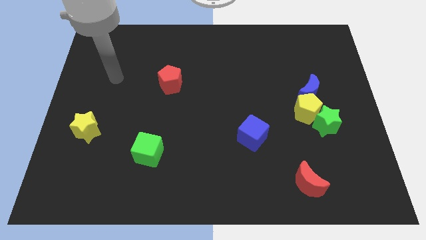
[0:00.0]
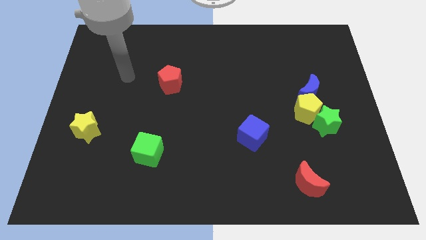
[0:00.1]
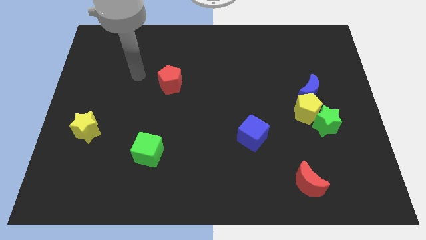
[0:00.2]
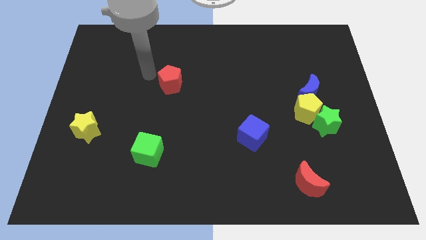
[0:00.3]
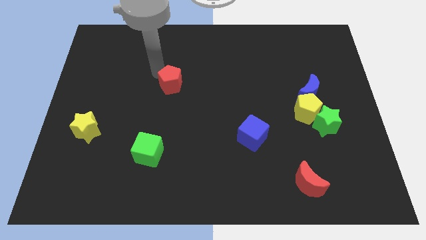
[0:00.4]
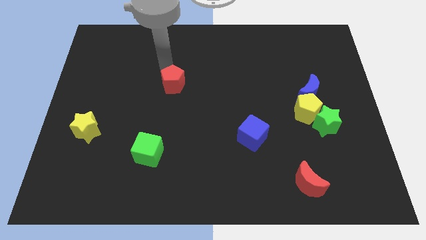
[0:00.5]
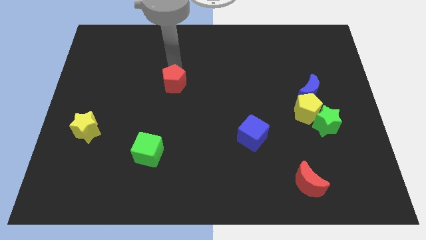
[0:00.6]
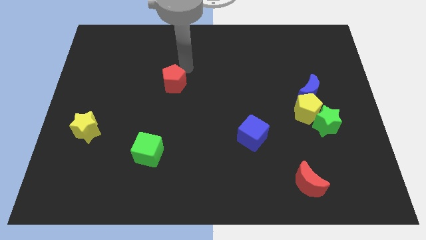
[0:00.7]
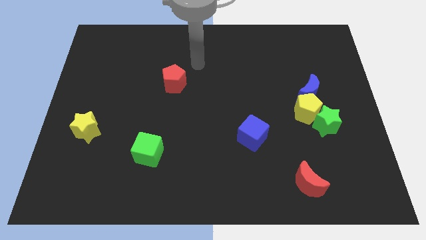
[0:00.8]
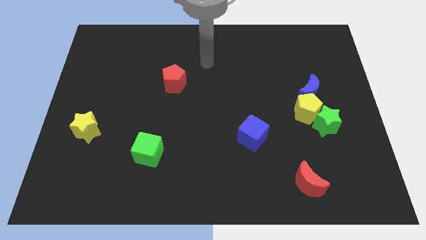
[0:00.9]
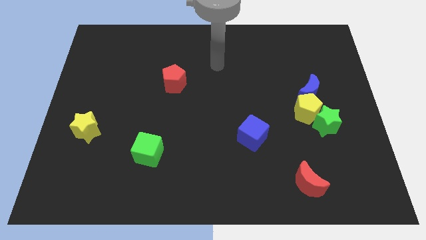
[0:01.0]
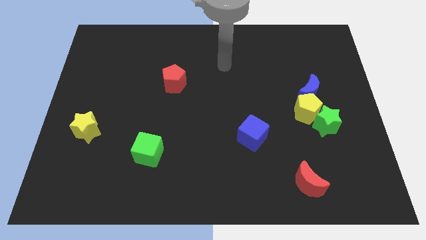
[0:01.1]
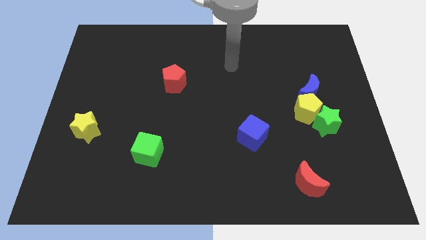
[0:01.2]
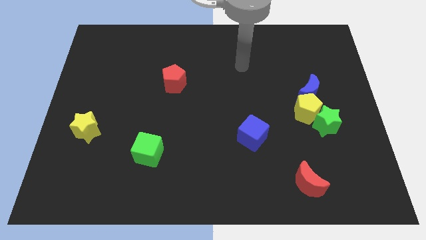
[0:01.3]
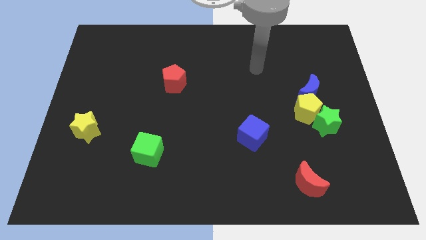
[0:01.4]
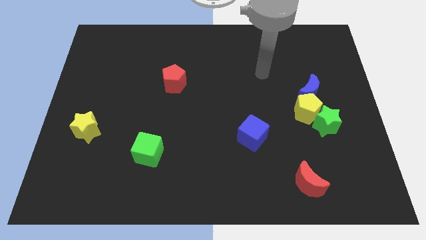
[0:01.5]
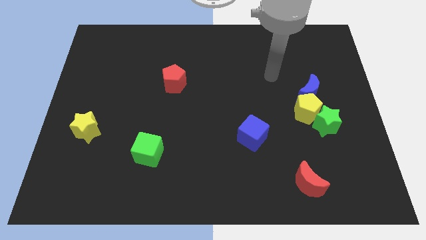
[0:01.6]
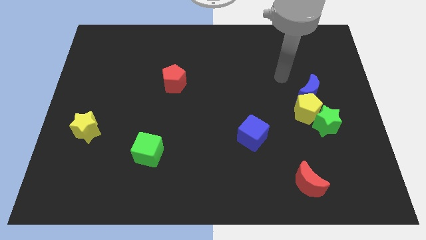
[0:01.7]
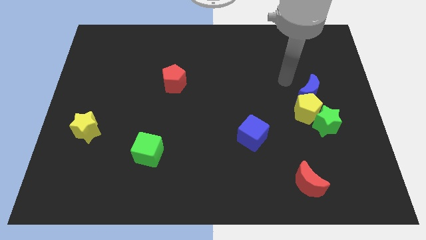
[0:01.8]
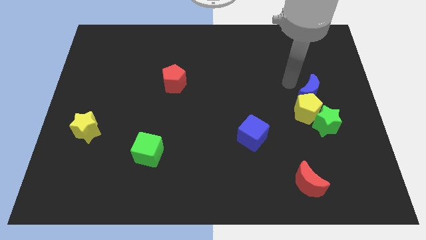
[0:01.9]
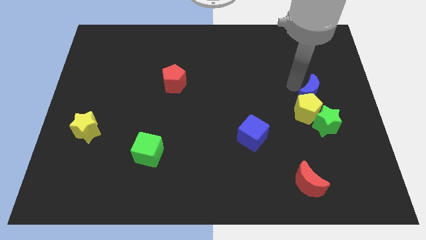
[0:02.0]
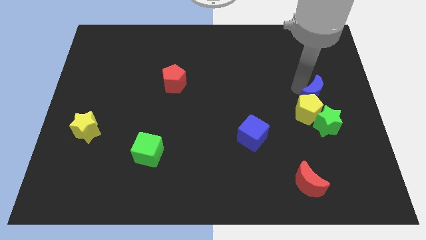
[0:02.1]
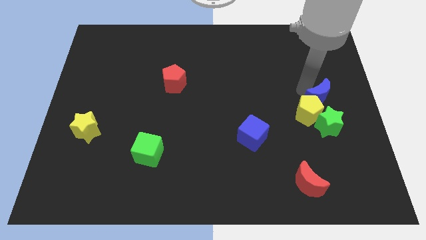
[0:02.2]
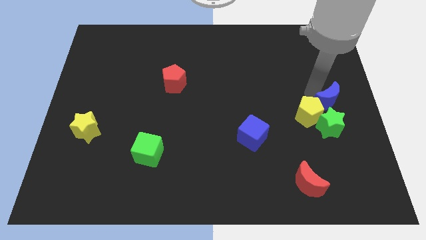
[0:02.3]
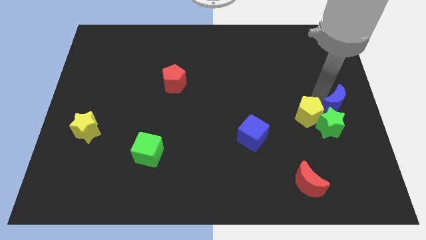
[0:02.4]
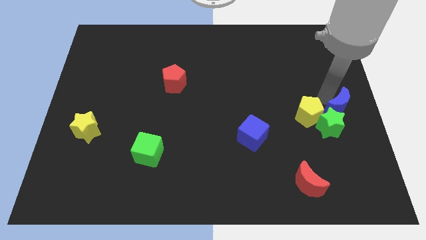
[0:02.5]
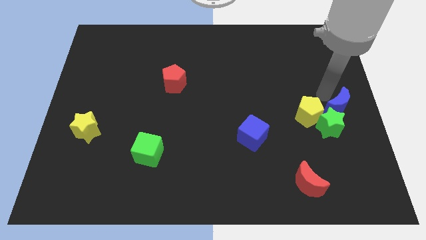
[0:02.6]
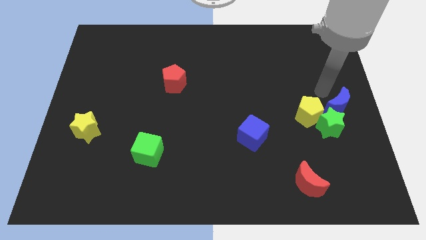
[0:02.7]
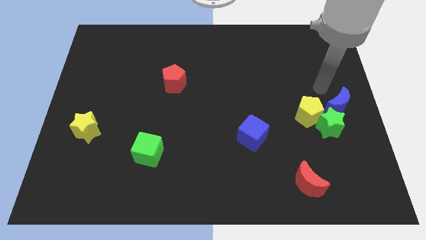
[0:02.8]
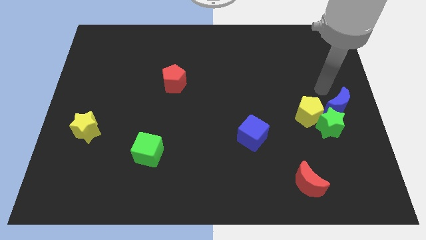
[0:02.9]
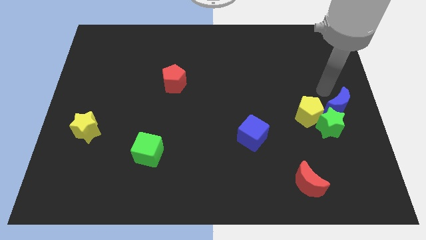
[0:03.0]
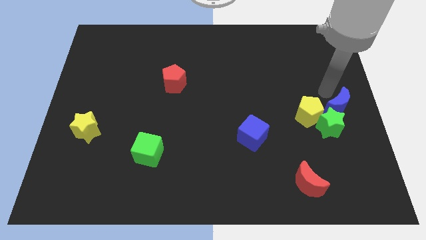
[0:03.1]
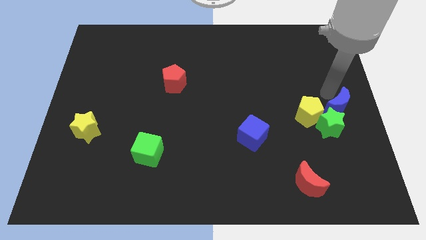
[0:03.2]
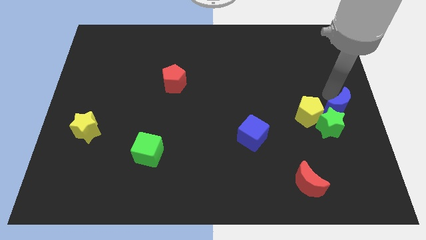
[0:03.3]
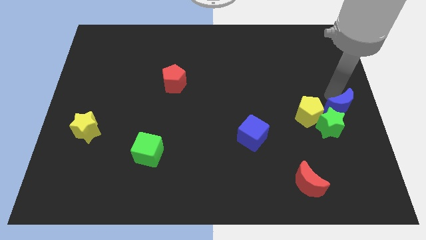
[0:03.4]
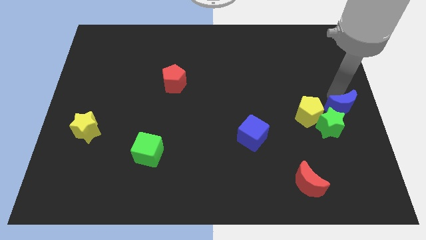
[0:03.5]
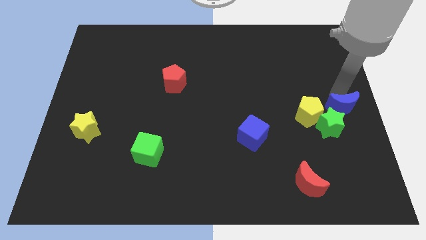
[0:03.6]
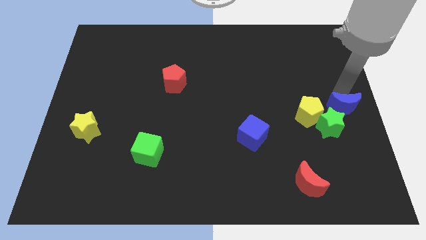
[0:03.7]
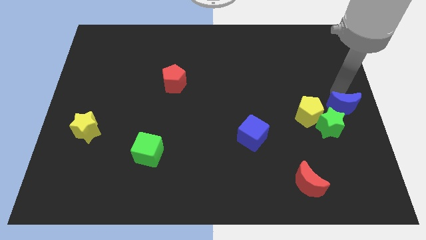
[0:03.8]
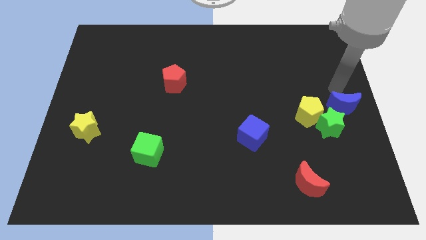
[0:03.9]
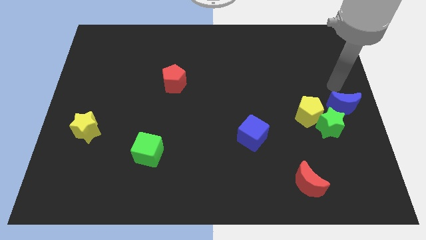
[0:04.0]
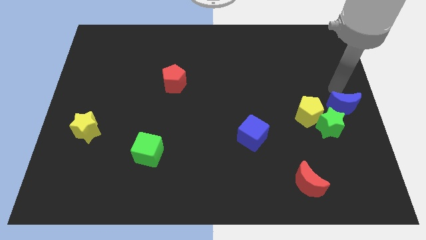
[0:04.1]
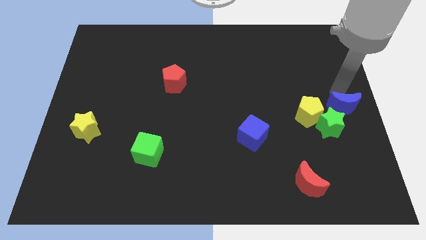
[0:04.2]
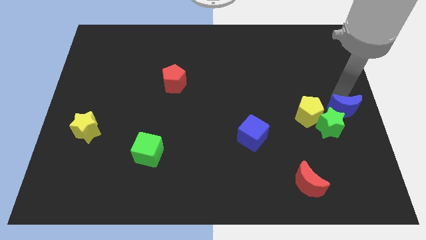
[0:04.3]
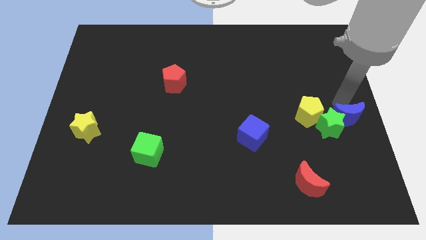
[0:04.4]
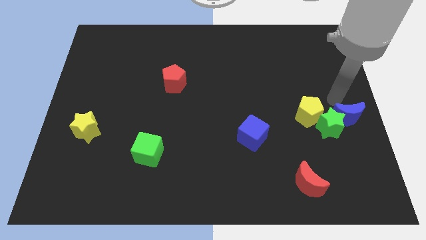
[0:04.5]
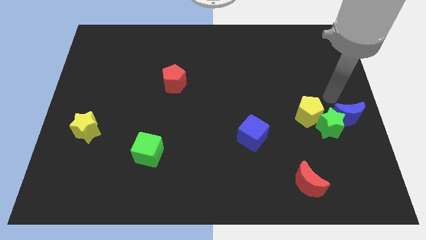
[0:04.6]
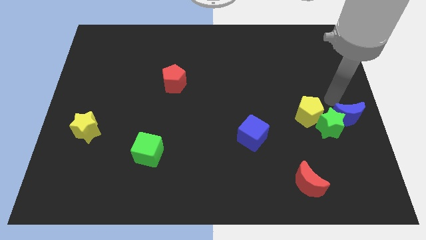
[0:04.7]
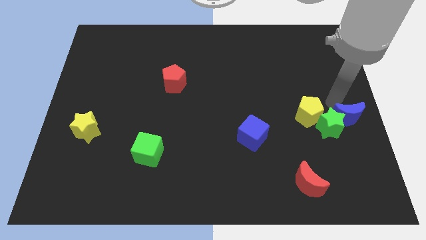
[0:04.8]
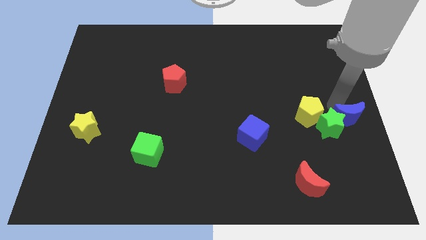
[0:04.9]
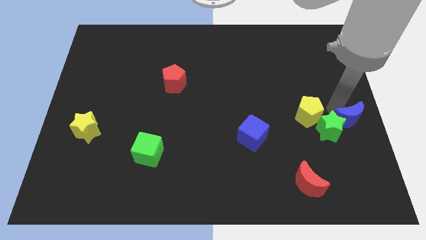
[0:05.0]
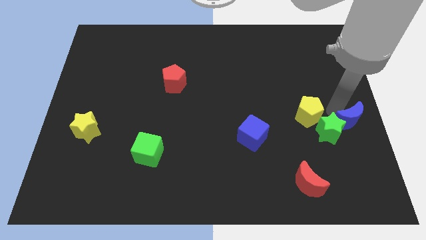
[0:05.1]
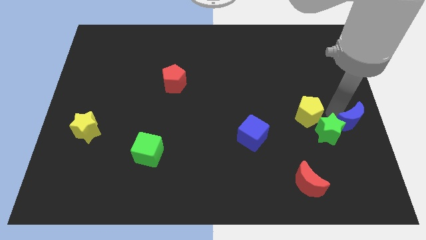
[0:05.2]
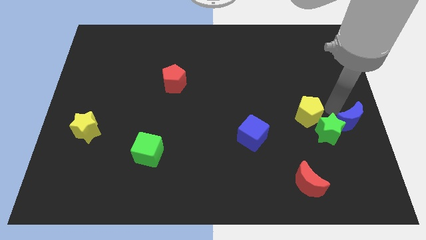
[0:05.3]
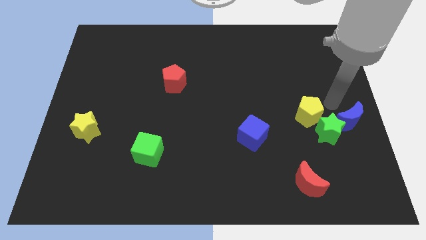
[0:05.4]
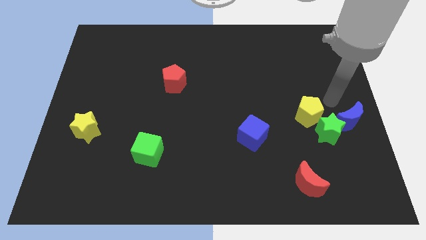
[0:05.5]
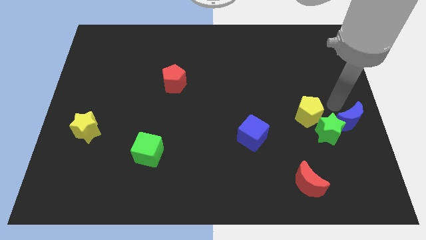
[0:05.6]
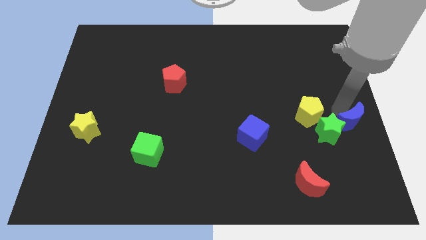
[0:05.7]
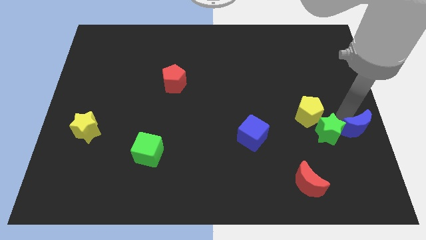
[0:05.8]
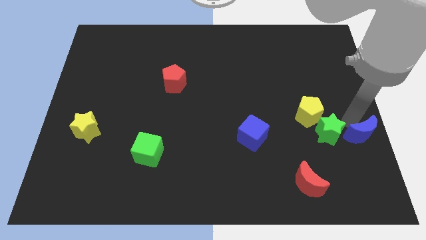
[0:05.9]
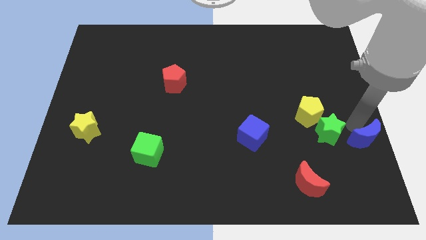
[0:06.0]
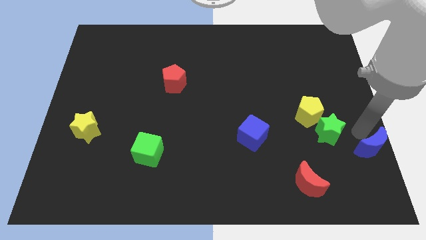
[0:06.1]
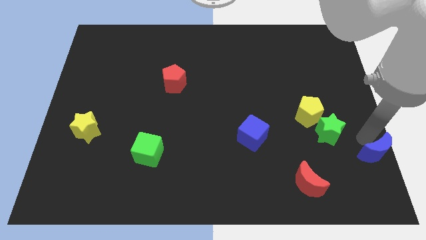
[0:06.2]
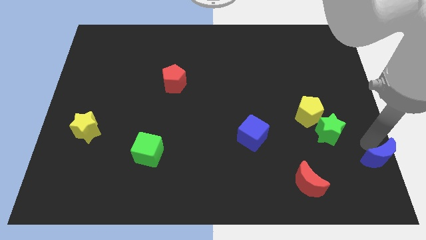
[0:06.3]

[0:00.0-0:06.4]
move the blue moon to the bottom right
